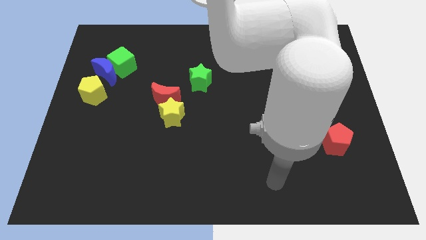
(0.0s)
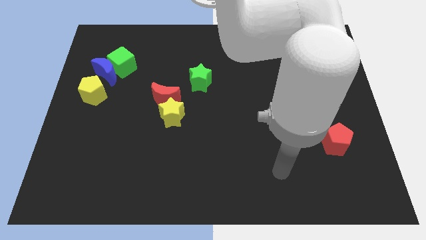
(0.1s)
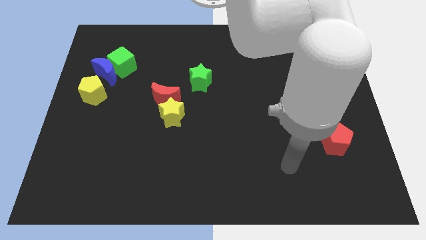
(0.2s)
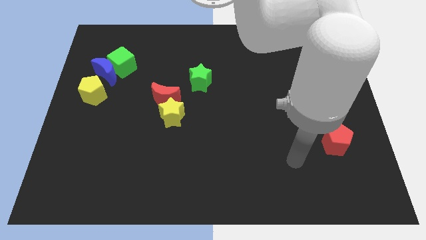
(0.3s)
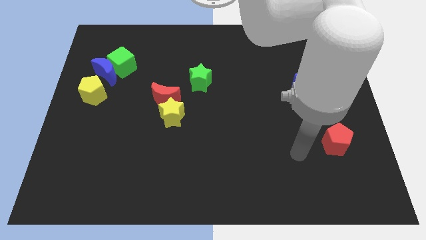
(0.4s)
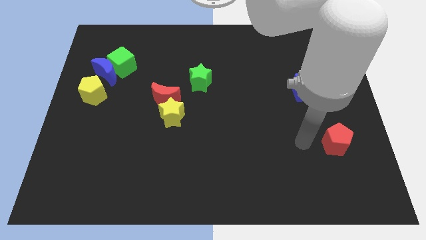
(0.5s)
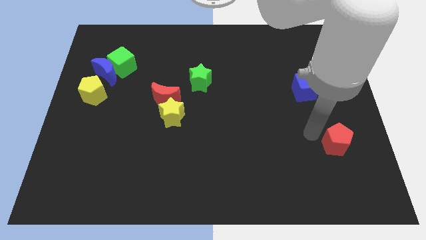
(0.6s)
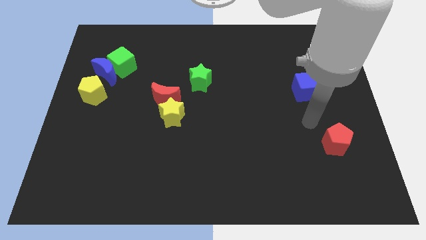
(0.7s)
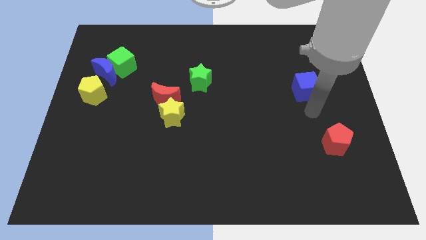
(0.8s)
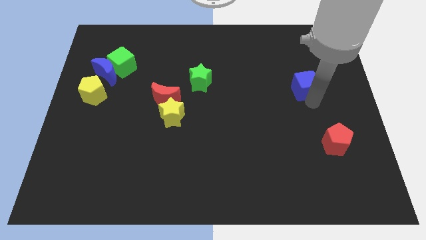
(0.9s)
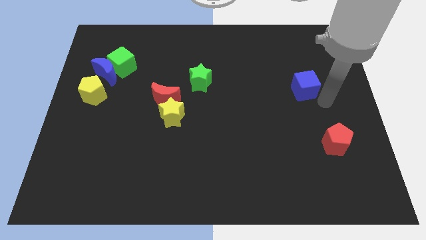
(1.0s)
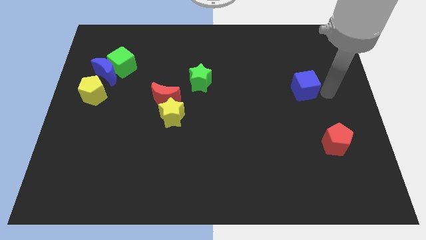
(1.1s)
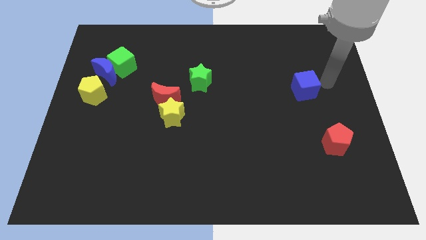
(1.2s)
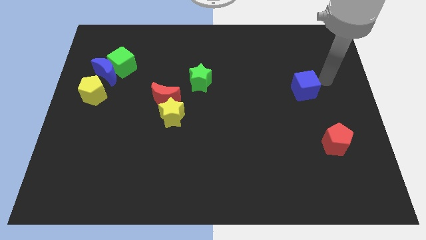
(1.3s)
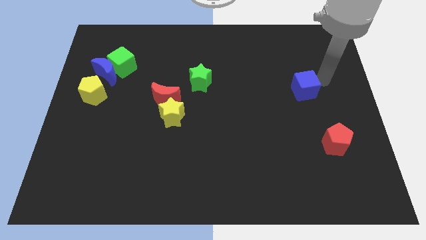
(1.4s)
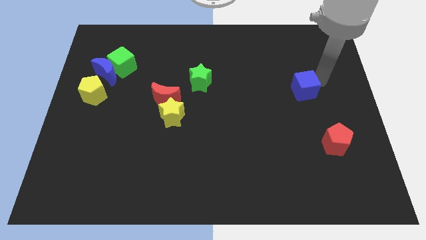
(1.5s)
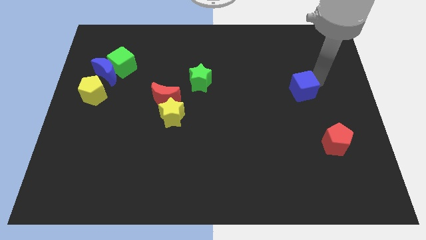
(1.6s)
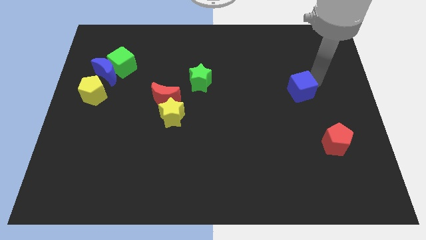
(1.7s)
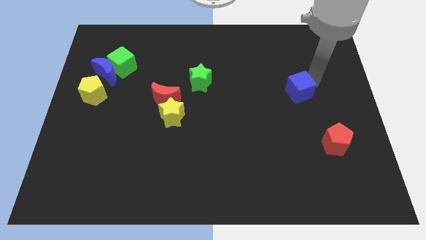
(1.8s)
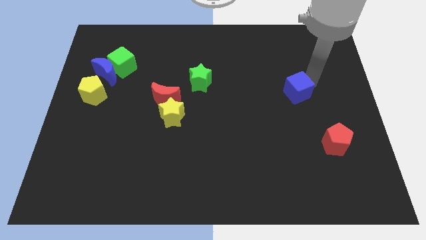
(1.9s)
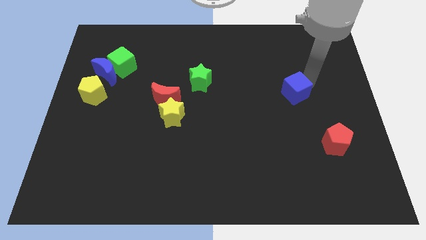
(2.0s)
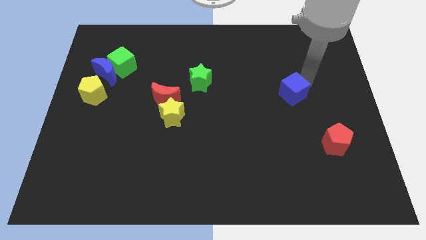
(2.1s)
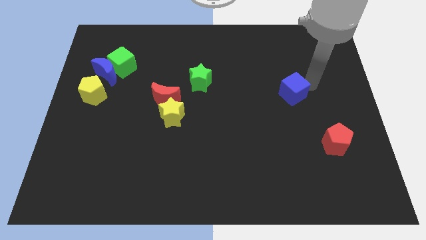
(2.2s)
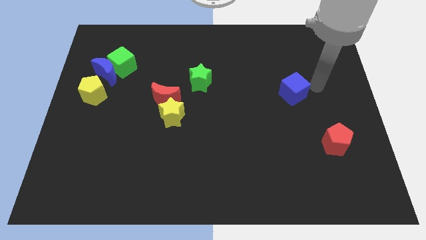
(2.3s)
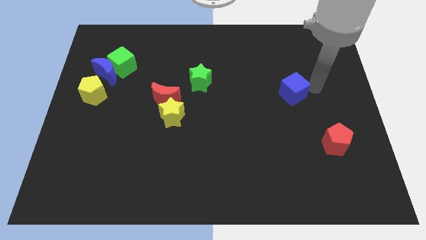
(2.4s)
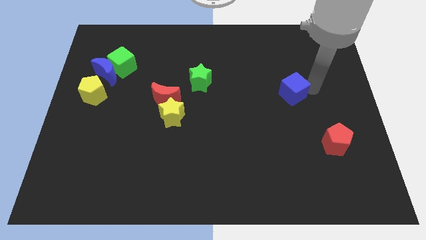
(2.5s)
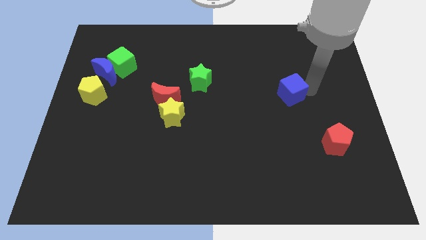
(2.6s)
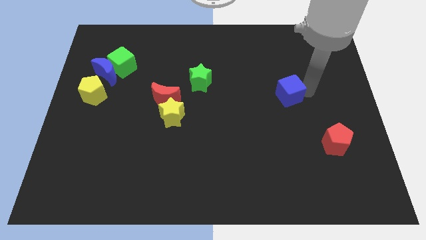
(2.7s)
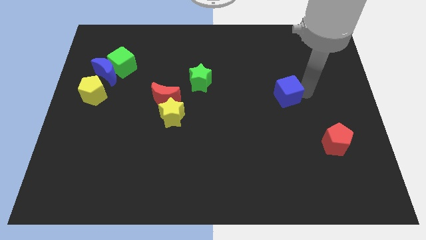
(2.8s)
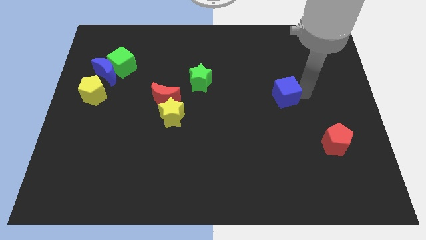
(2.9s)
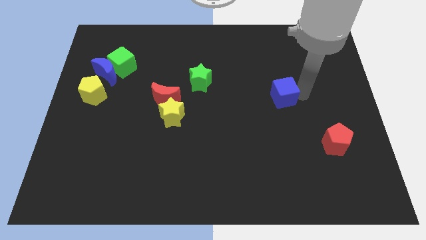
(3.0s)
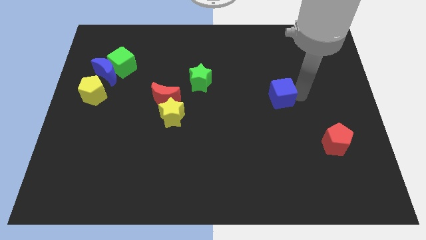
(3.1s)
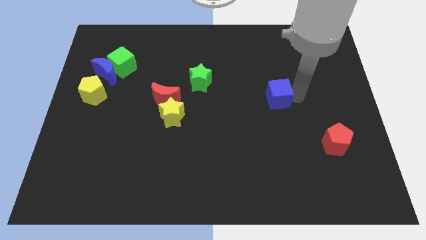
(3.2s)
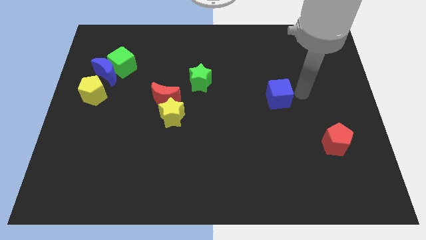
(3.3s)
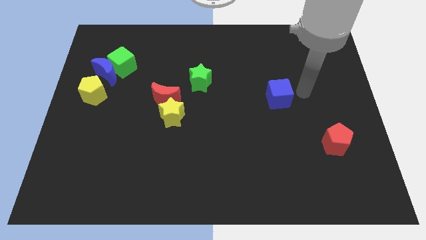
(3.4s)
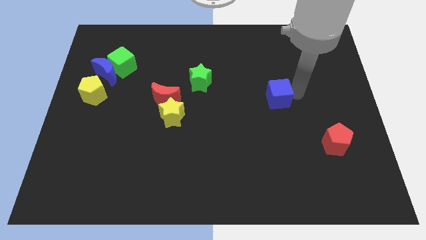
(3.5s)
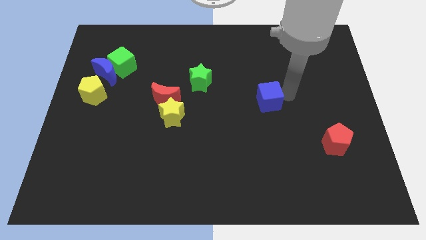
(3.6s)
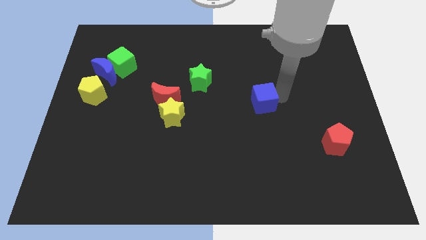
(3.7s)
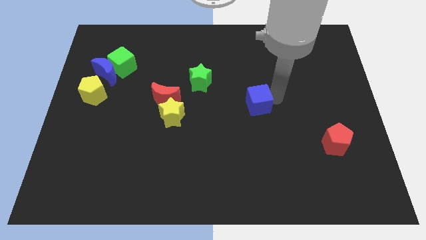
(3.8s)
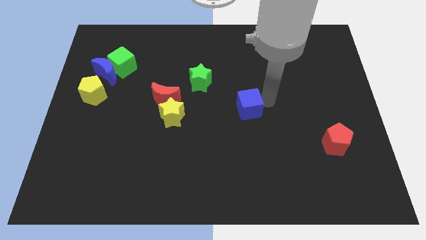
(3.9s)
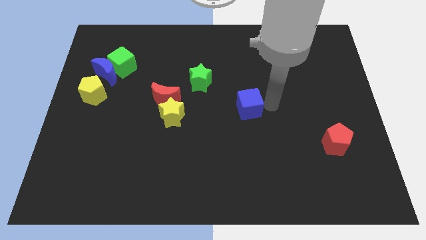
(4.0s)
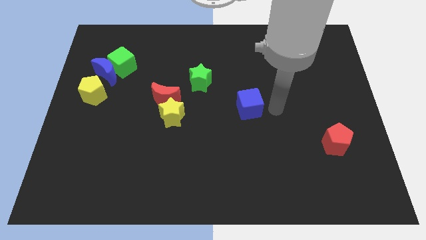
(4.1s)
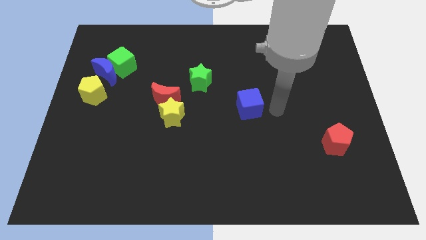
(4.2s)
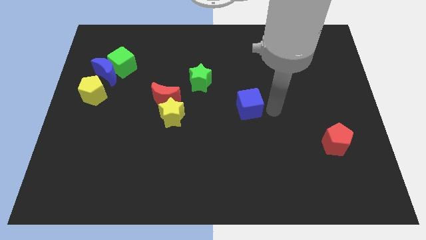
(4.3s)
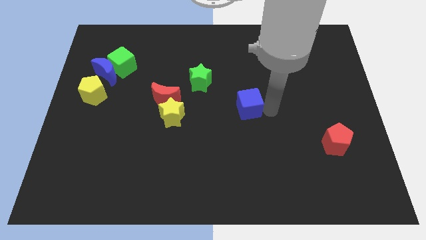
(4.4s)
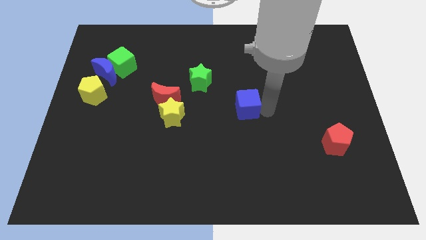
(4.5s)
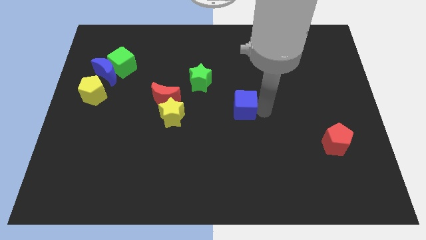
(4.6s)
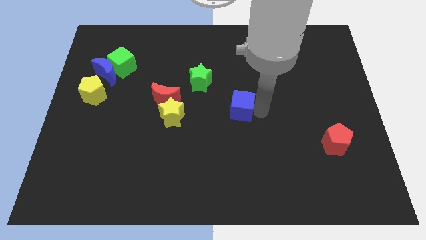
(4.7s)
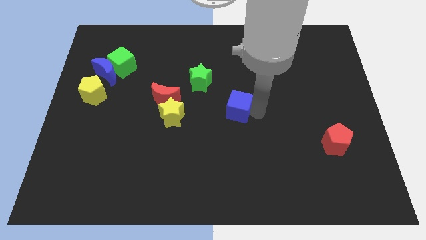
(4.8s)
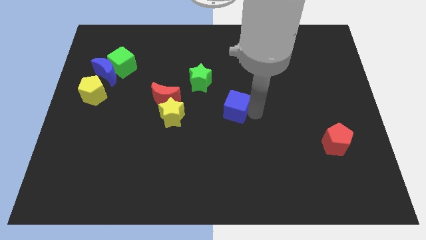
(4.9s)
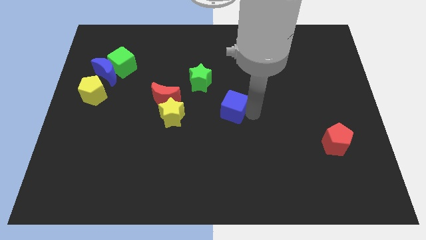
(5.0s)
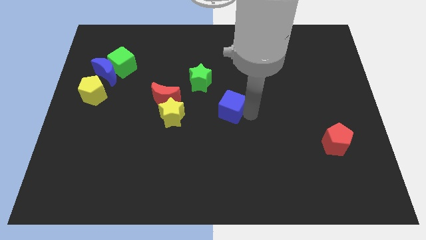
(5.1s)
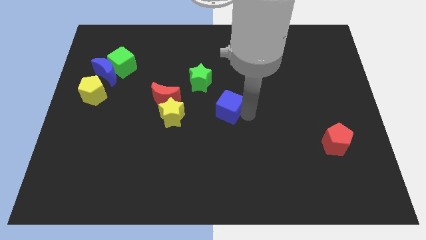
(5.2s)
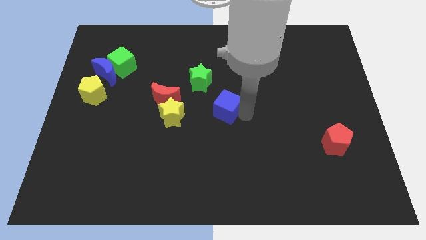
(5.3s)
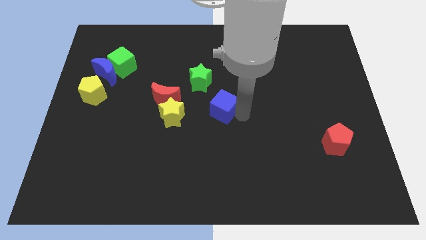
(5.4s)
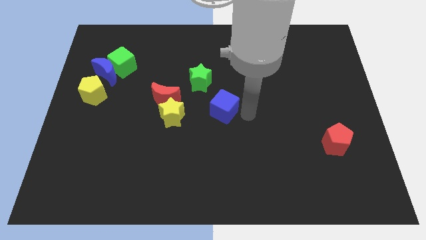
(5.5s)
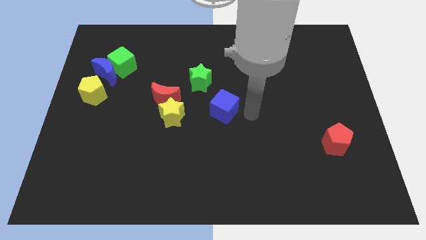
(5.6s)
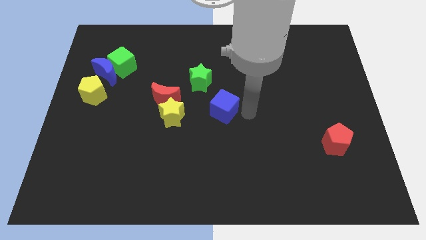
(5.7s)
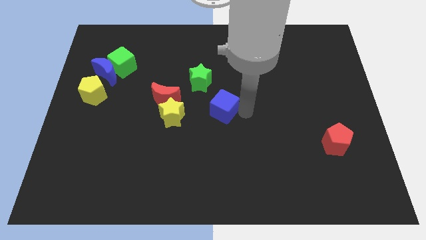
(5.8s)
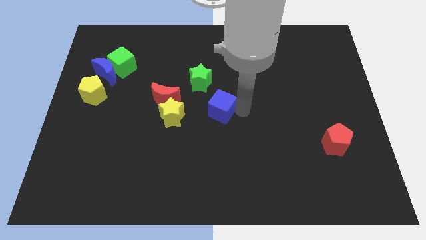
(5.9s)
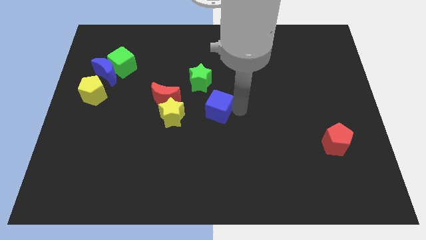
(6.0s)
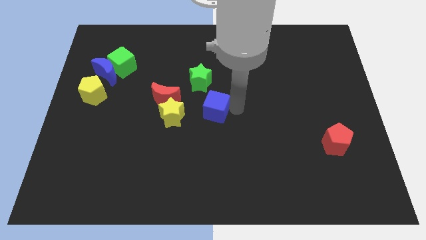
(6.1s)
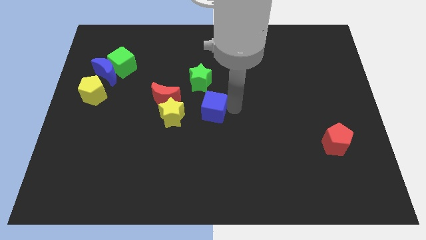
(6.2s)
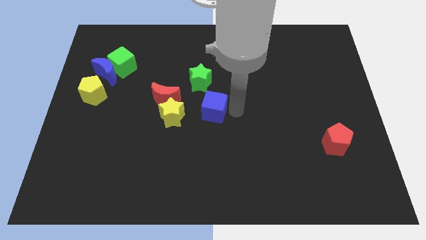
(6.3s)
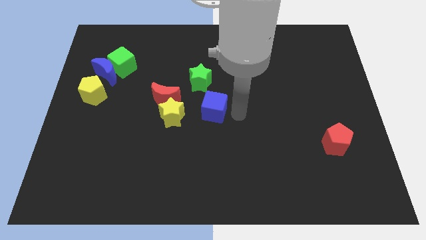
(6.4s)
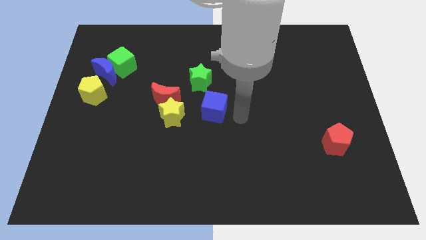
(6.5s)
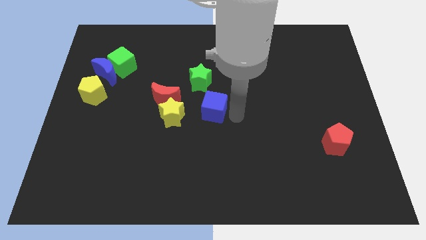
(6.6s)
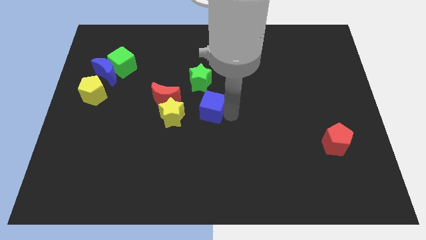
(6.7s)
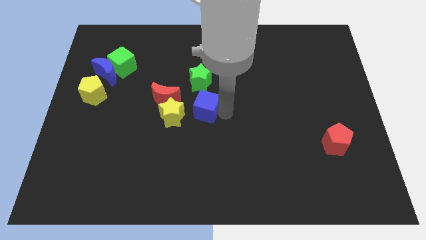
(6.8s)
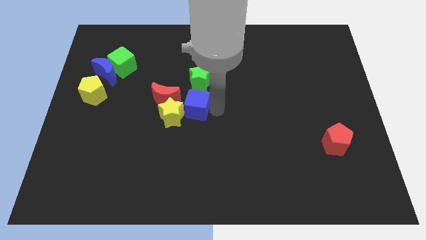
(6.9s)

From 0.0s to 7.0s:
push the blue cube towards the yellow star
